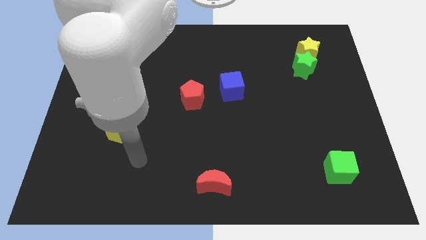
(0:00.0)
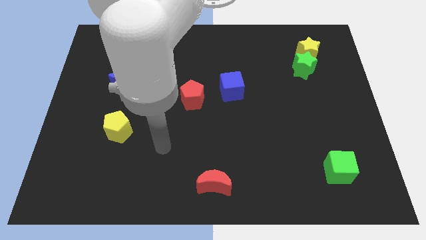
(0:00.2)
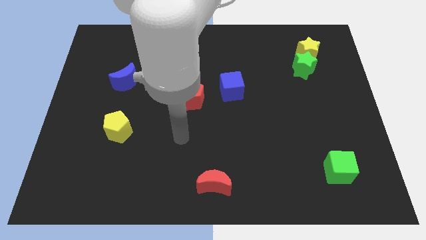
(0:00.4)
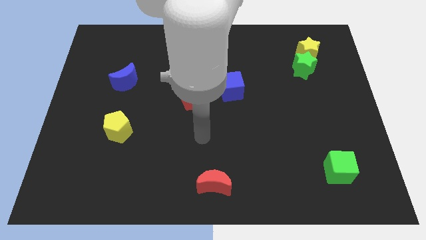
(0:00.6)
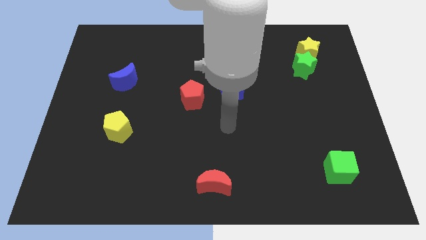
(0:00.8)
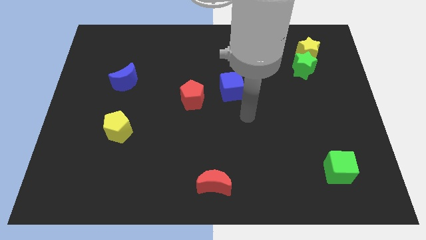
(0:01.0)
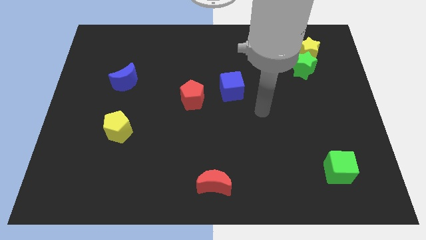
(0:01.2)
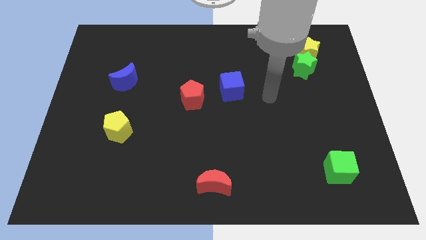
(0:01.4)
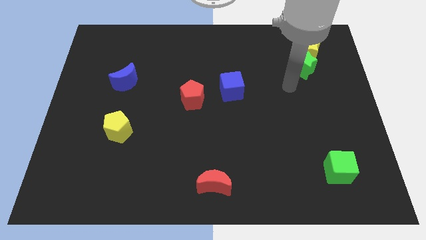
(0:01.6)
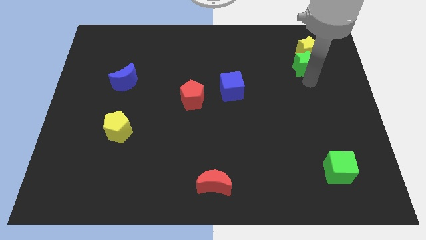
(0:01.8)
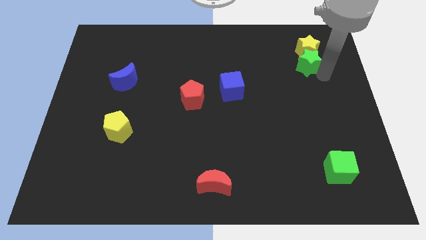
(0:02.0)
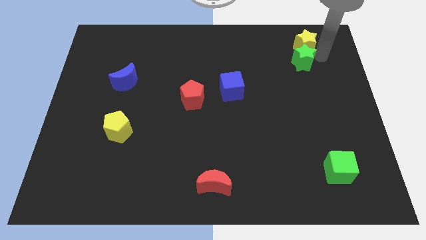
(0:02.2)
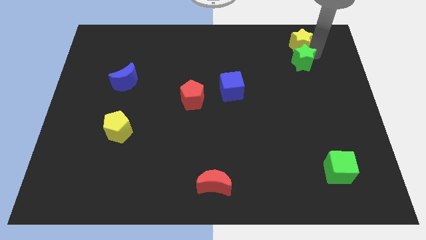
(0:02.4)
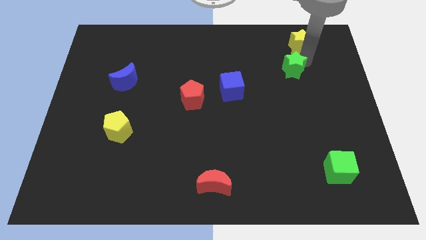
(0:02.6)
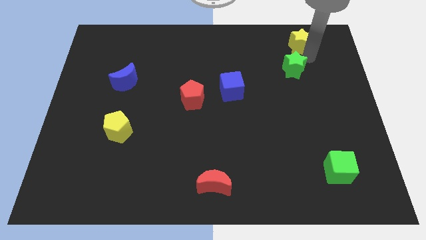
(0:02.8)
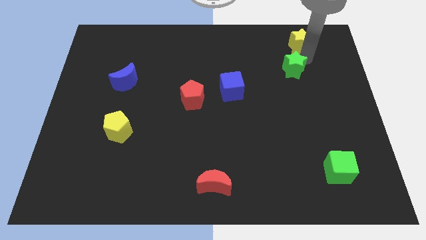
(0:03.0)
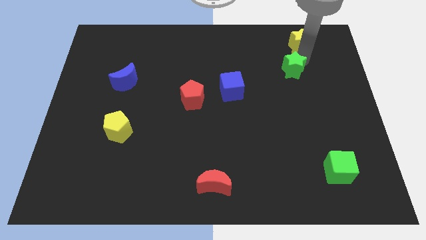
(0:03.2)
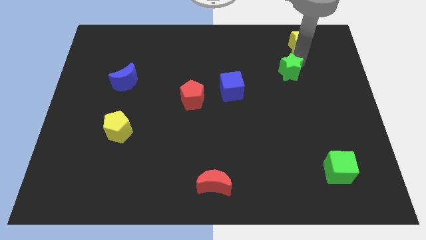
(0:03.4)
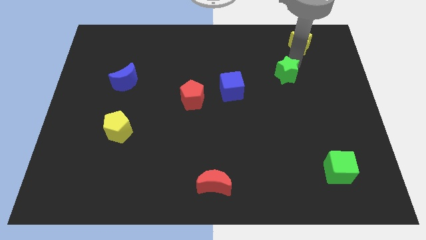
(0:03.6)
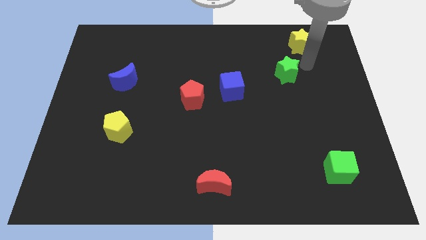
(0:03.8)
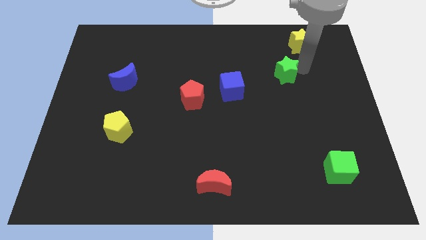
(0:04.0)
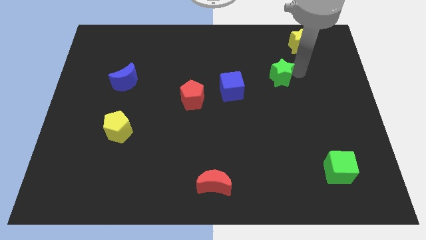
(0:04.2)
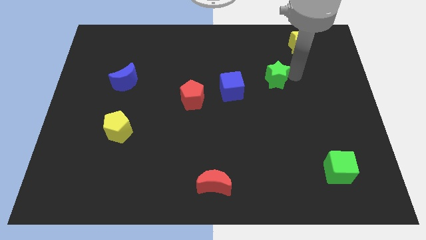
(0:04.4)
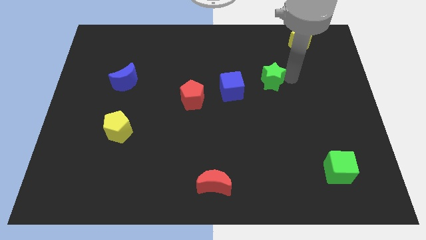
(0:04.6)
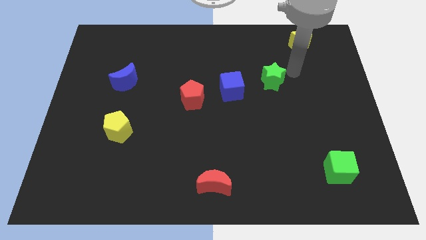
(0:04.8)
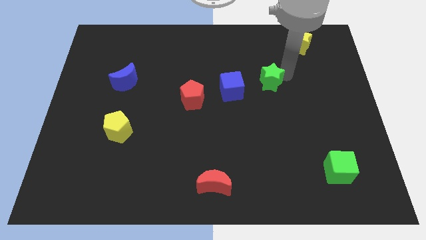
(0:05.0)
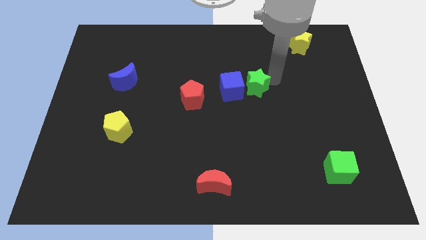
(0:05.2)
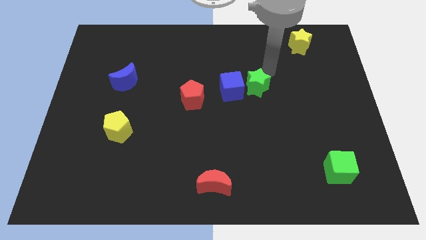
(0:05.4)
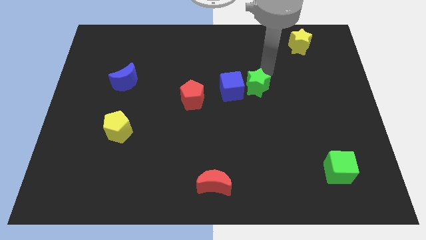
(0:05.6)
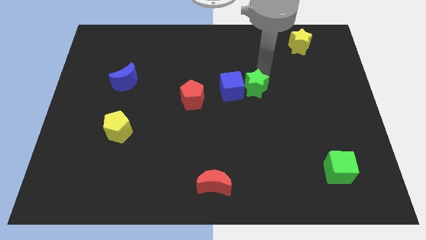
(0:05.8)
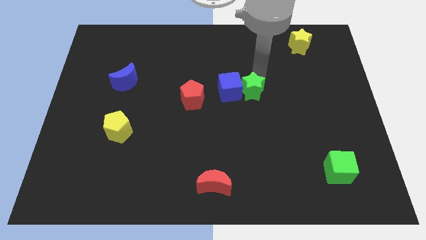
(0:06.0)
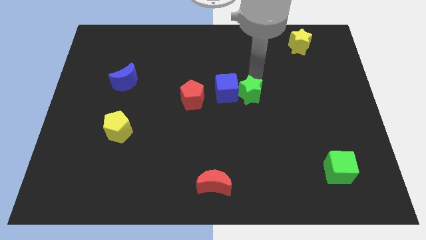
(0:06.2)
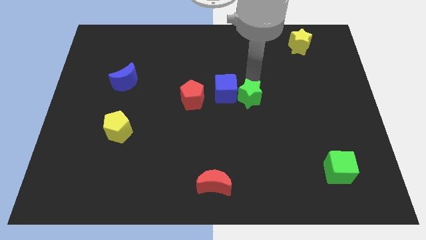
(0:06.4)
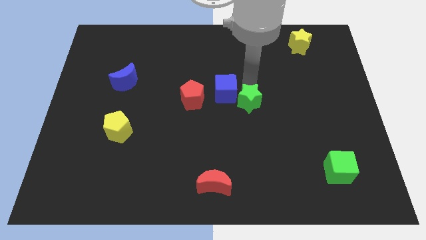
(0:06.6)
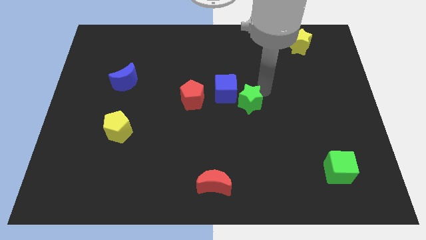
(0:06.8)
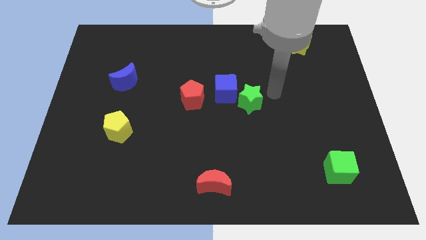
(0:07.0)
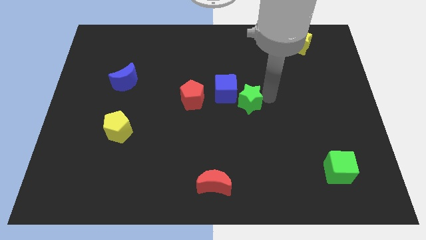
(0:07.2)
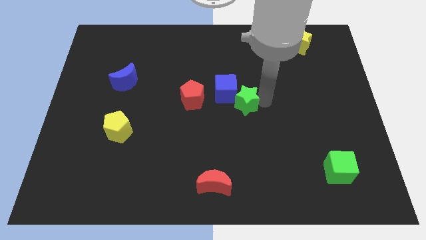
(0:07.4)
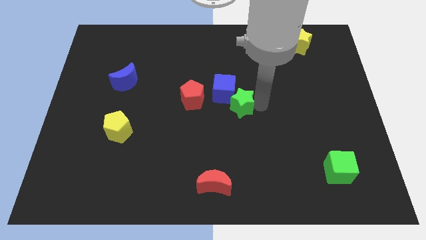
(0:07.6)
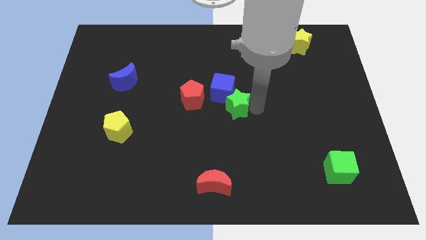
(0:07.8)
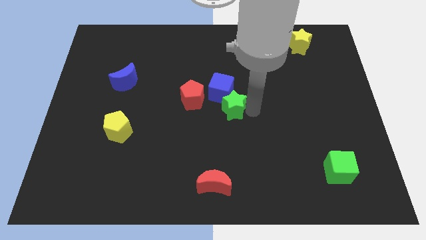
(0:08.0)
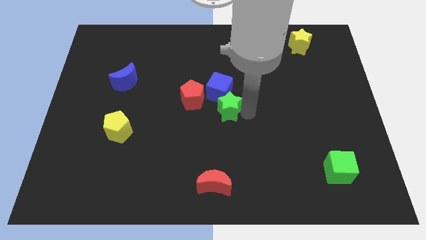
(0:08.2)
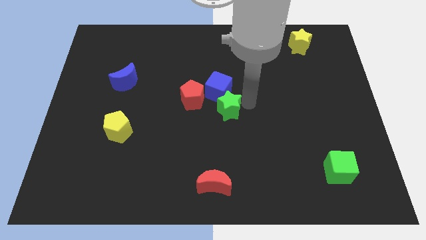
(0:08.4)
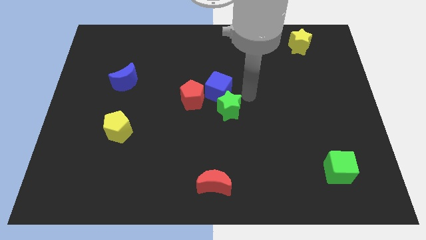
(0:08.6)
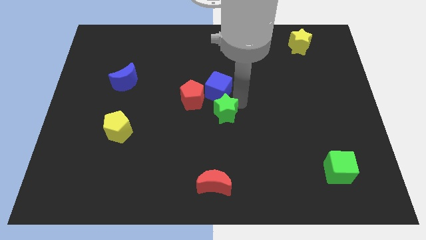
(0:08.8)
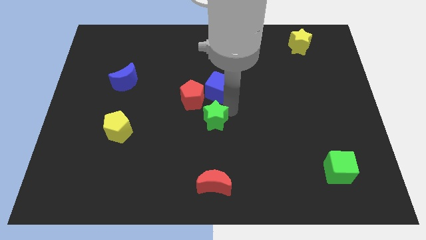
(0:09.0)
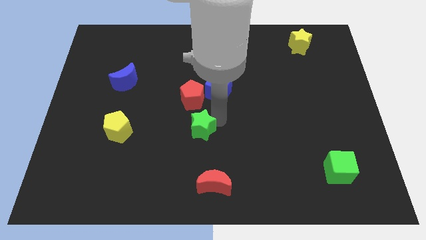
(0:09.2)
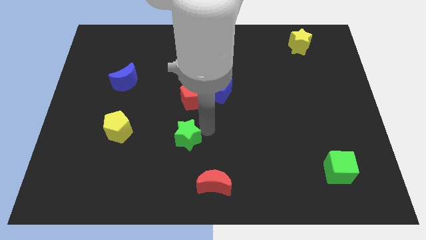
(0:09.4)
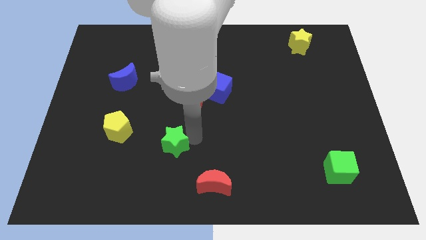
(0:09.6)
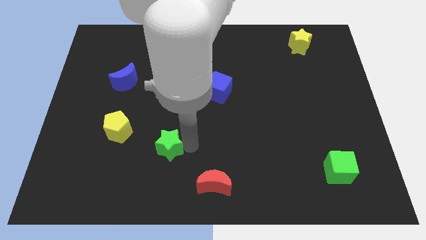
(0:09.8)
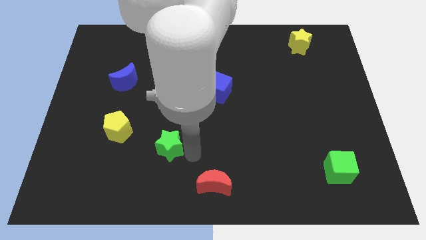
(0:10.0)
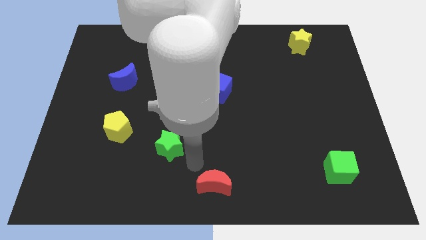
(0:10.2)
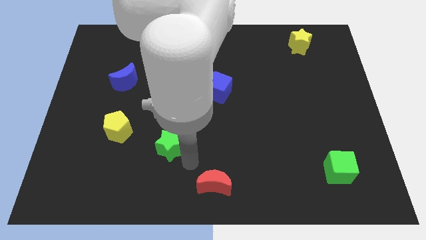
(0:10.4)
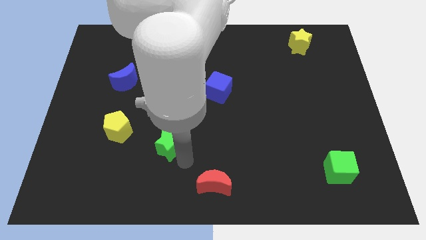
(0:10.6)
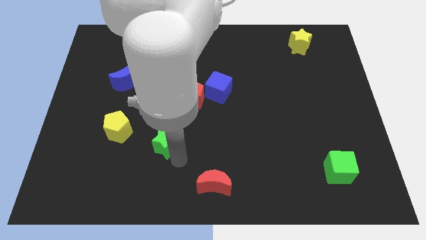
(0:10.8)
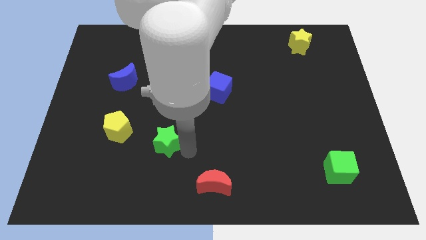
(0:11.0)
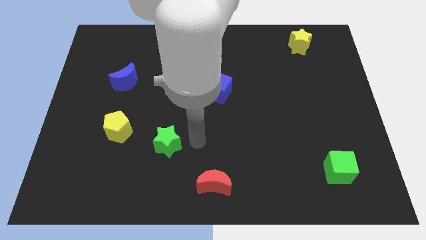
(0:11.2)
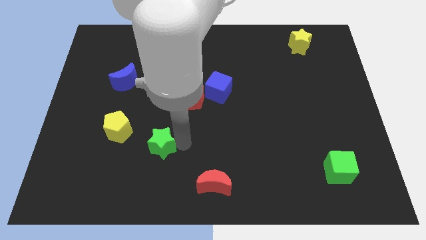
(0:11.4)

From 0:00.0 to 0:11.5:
slide the green star to the bottom right side of the yellow pentagon

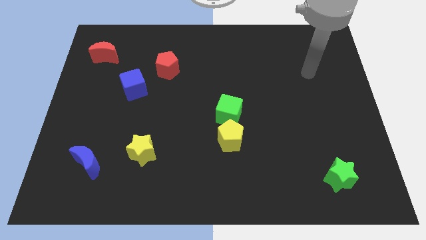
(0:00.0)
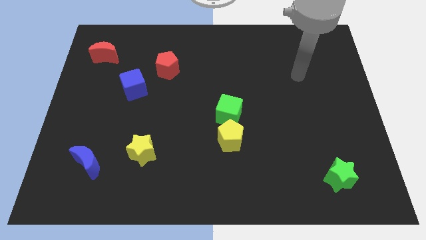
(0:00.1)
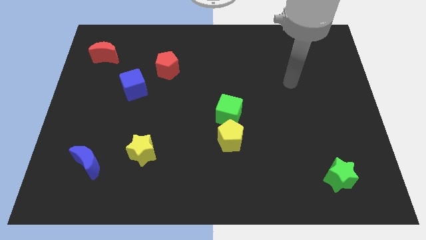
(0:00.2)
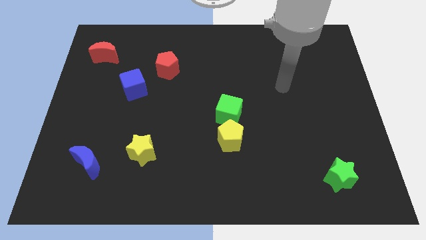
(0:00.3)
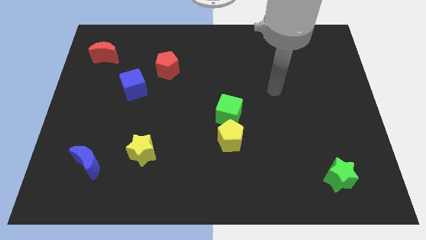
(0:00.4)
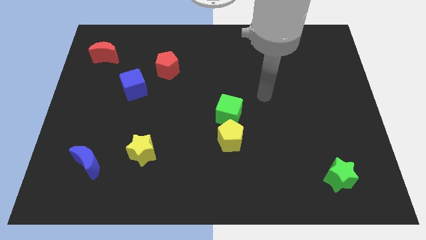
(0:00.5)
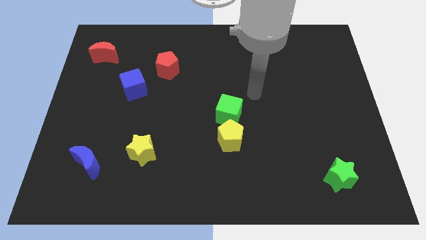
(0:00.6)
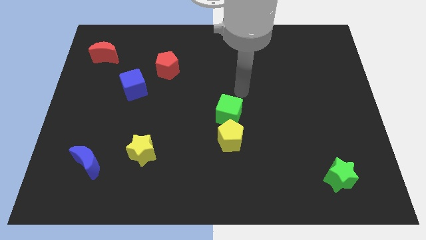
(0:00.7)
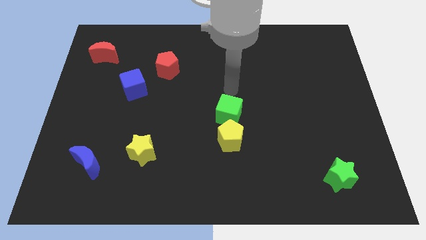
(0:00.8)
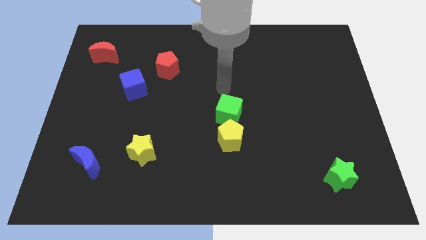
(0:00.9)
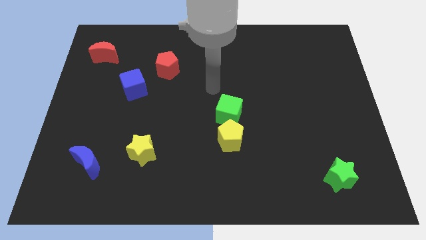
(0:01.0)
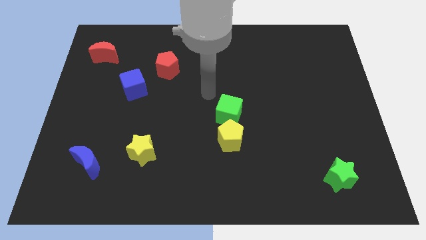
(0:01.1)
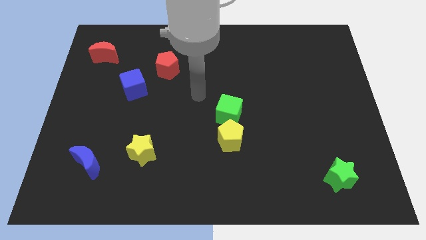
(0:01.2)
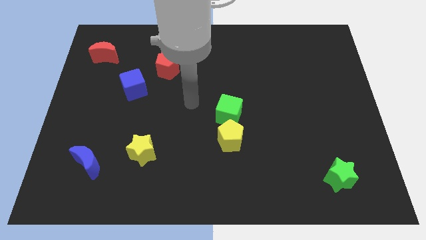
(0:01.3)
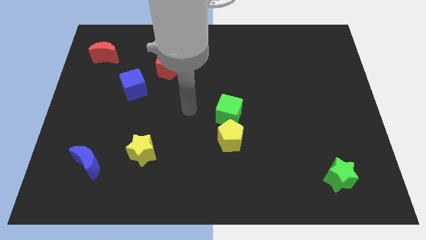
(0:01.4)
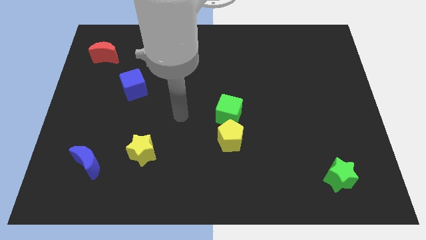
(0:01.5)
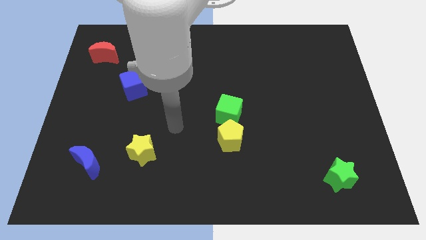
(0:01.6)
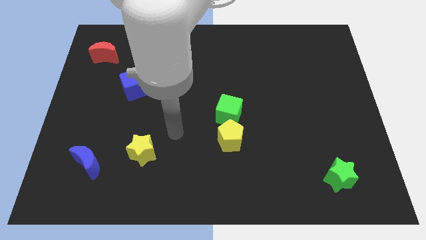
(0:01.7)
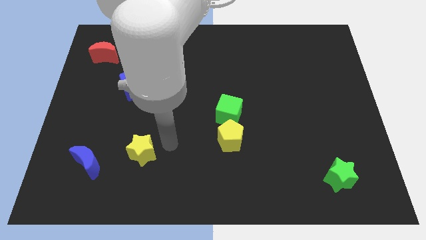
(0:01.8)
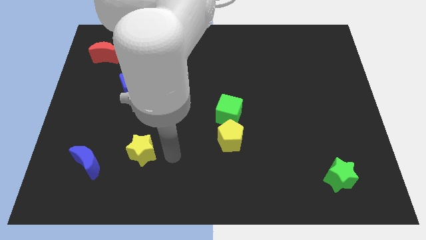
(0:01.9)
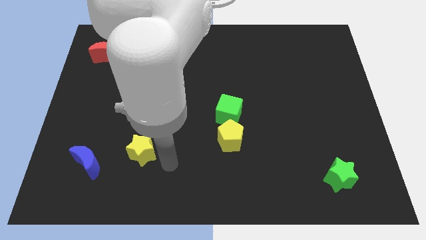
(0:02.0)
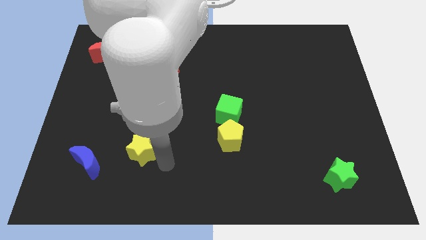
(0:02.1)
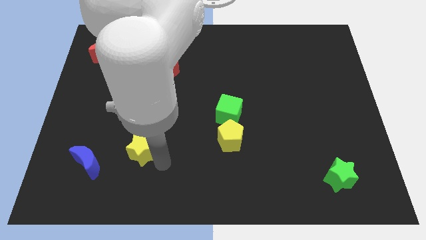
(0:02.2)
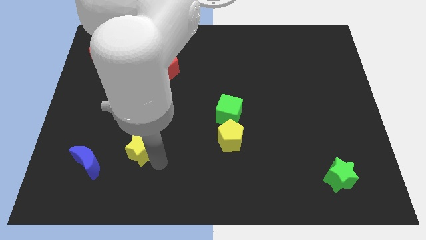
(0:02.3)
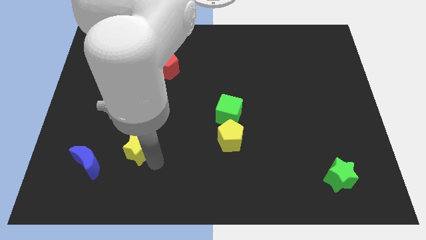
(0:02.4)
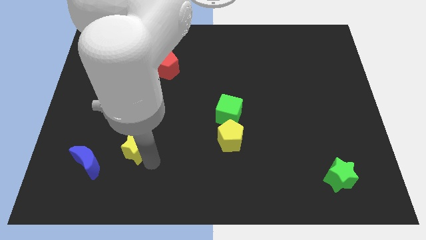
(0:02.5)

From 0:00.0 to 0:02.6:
slide the yellow star to the top right of the blue moon

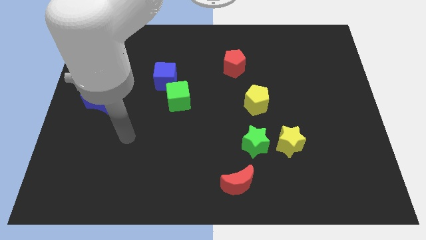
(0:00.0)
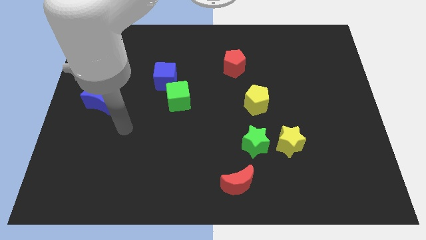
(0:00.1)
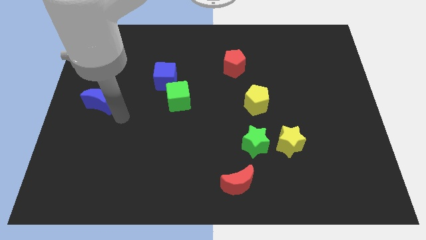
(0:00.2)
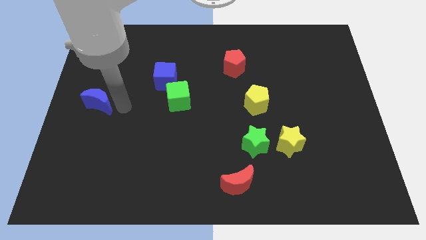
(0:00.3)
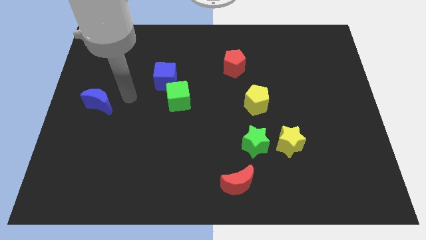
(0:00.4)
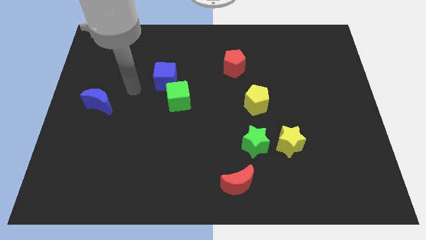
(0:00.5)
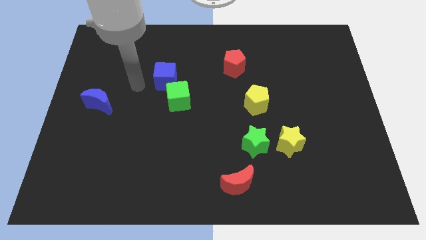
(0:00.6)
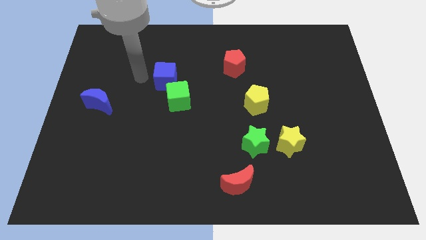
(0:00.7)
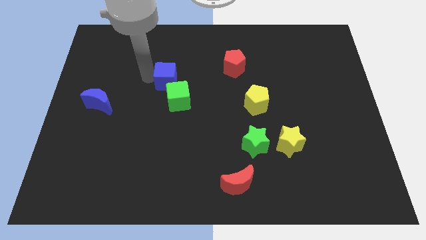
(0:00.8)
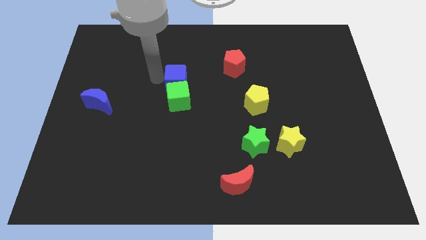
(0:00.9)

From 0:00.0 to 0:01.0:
put the blue cube to the top right side of the green cube
